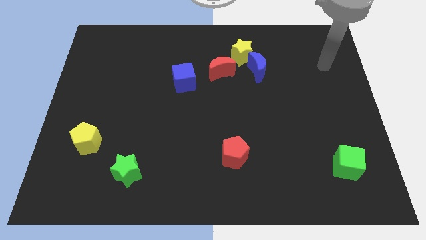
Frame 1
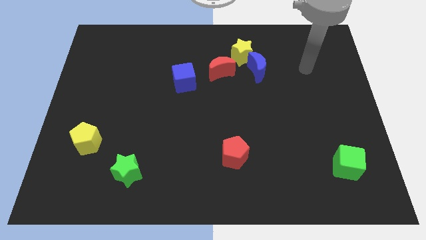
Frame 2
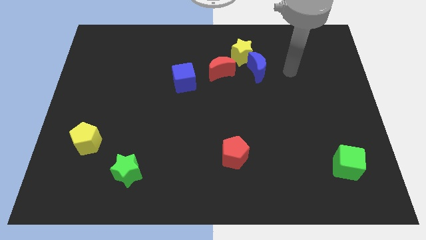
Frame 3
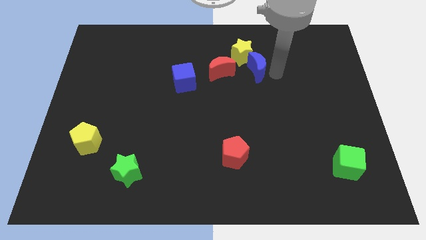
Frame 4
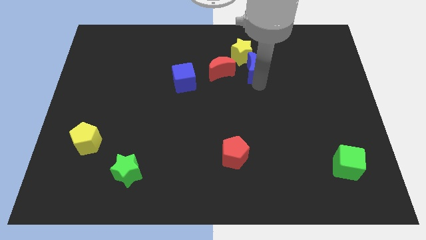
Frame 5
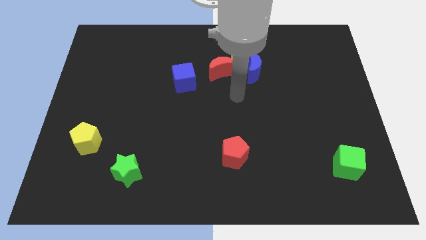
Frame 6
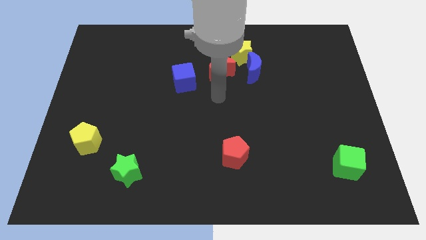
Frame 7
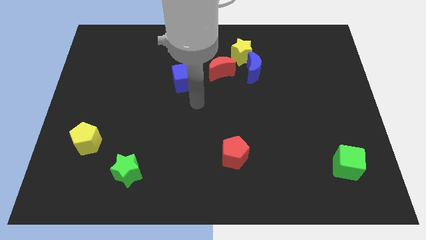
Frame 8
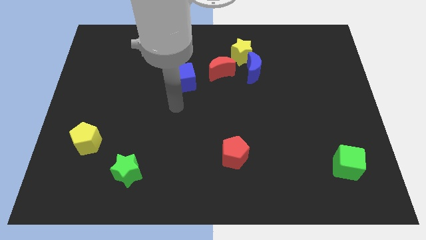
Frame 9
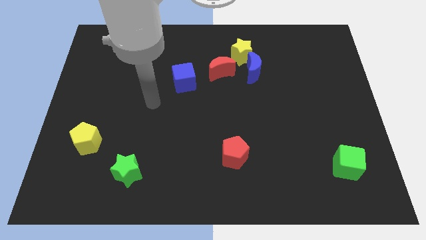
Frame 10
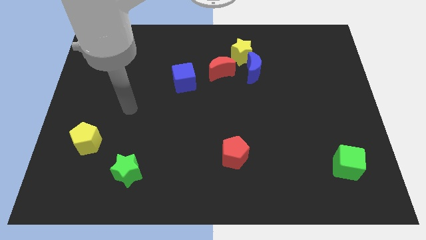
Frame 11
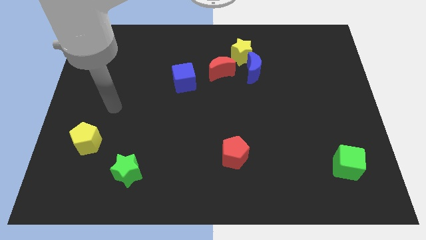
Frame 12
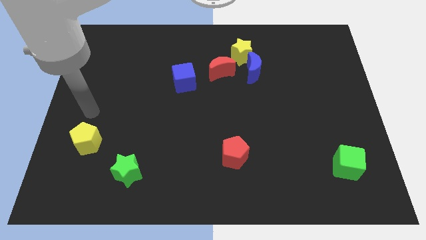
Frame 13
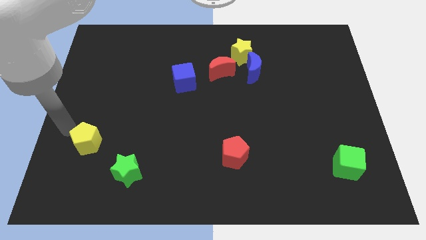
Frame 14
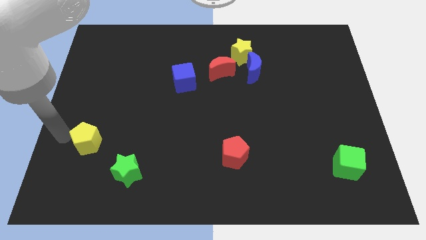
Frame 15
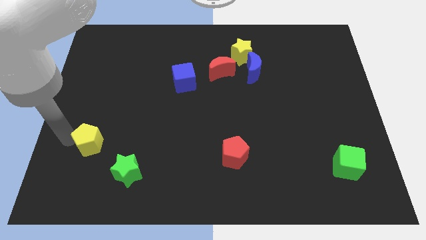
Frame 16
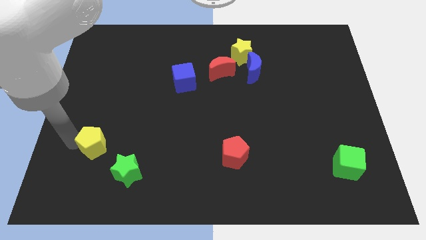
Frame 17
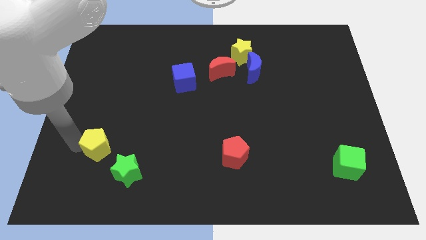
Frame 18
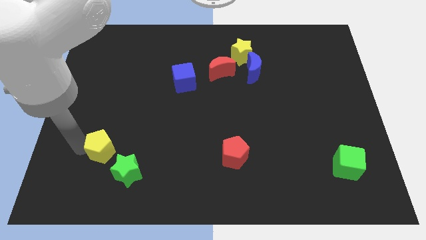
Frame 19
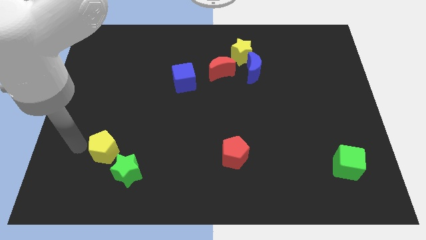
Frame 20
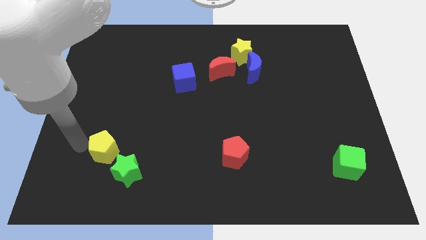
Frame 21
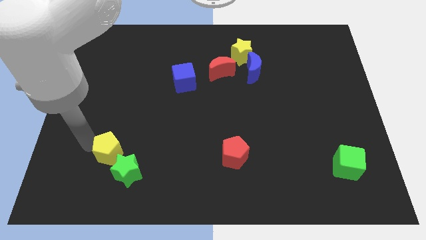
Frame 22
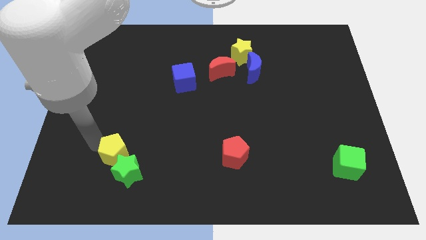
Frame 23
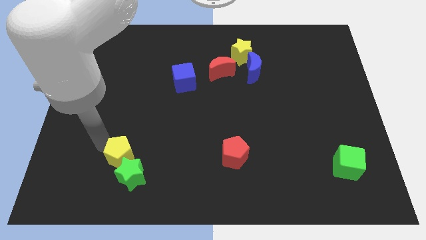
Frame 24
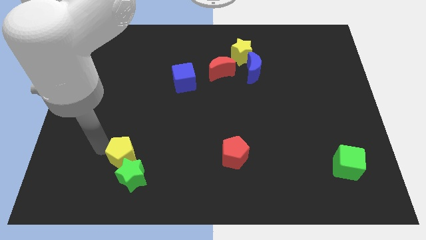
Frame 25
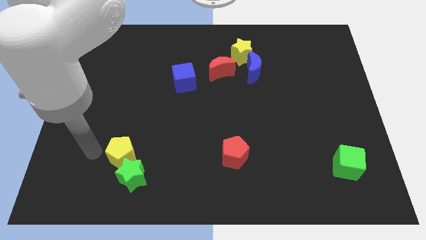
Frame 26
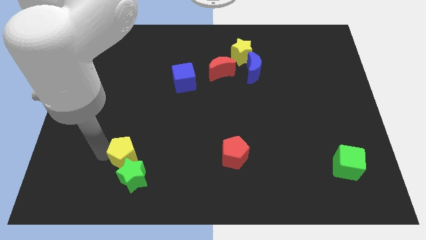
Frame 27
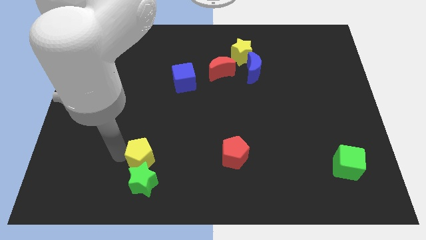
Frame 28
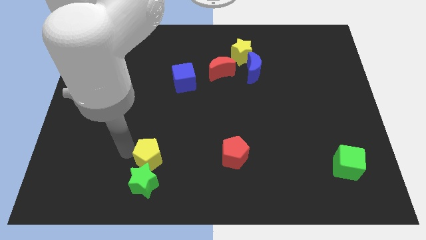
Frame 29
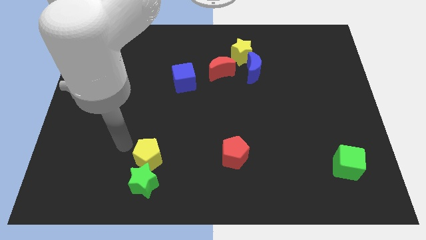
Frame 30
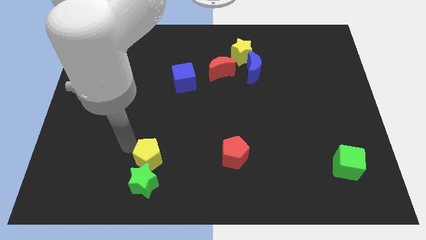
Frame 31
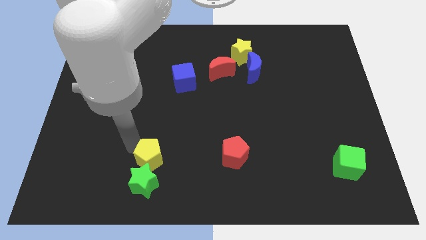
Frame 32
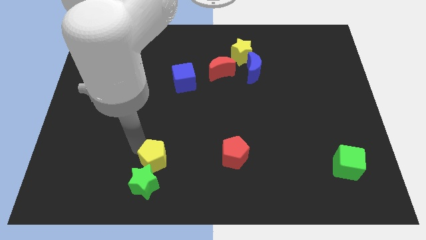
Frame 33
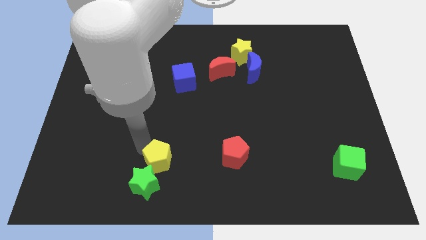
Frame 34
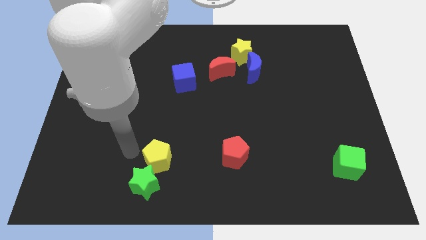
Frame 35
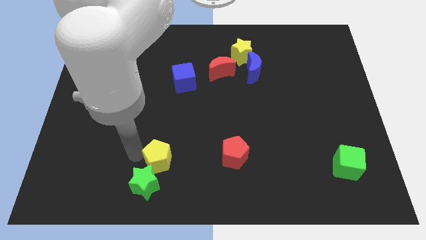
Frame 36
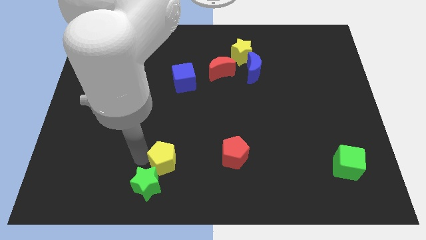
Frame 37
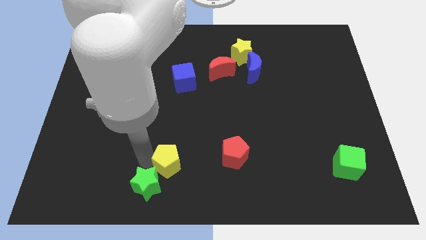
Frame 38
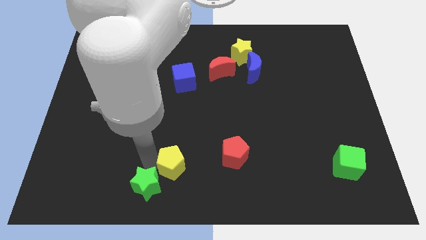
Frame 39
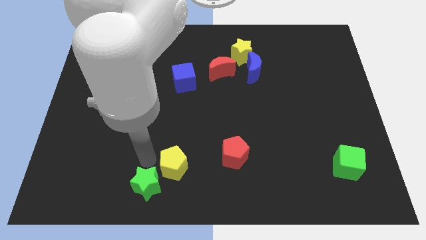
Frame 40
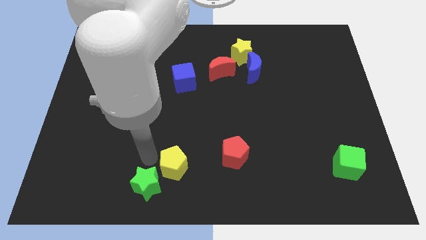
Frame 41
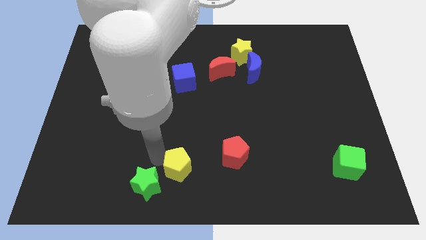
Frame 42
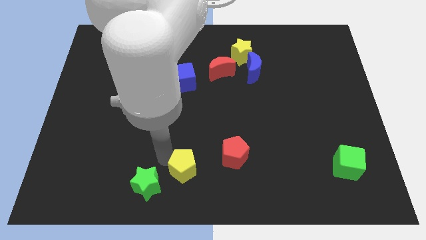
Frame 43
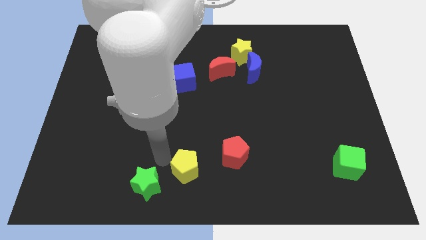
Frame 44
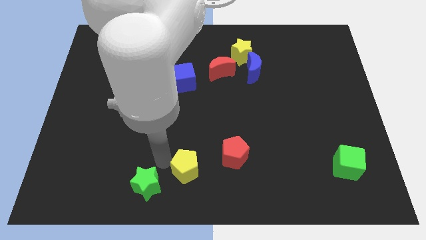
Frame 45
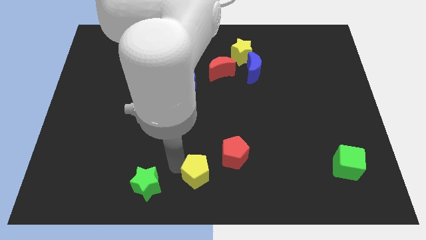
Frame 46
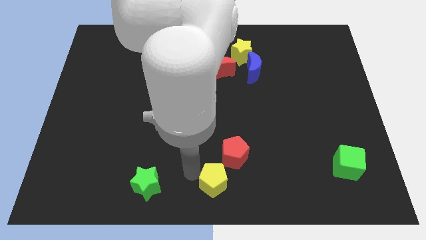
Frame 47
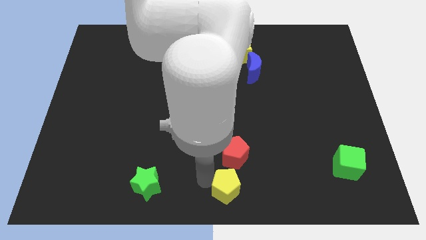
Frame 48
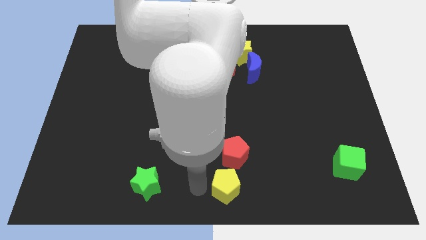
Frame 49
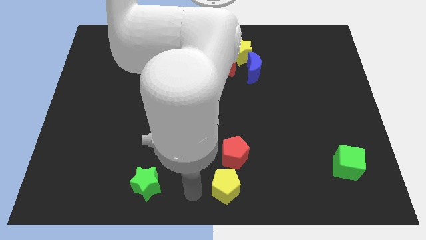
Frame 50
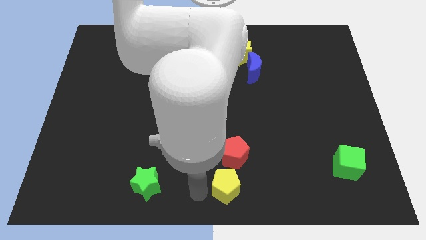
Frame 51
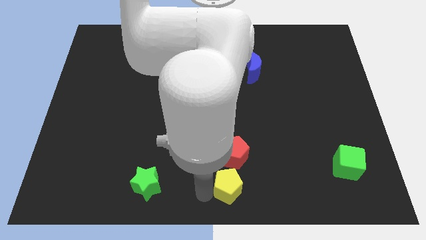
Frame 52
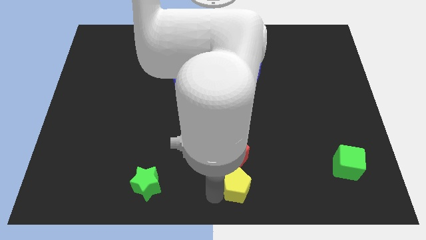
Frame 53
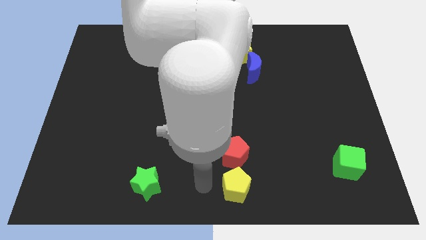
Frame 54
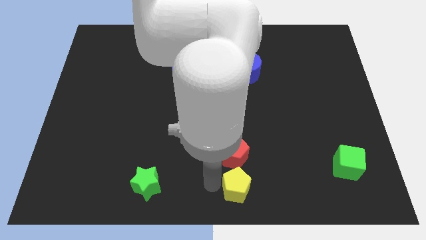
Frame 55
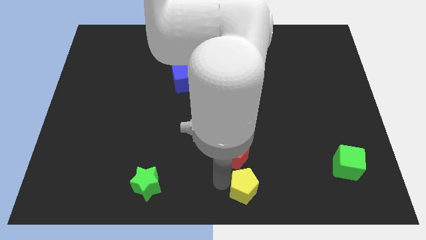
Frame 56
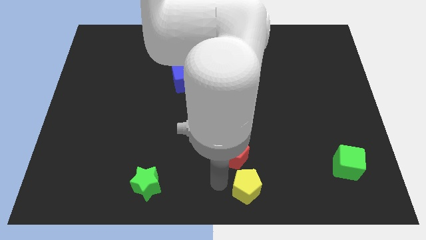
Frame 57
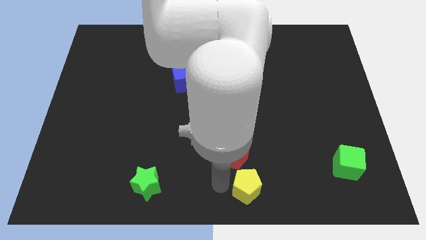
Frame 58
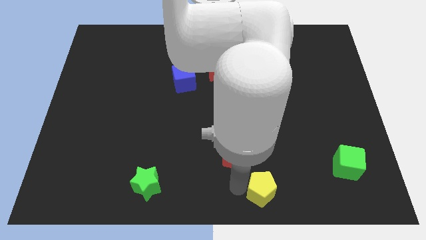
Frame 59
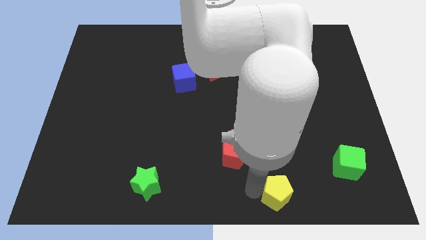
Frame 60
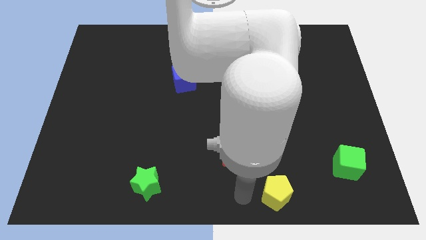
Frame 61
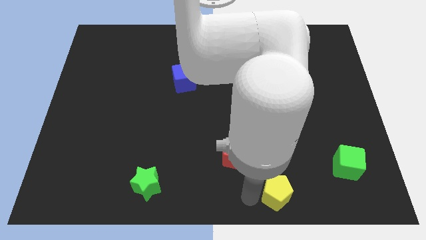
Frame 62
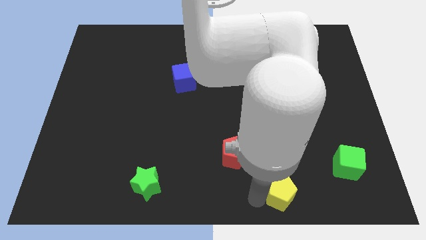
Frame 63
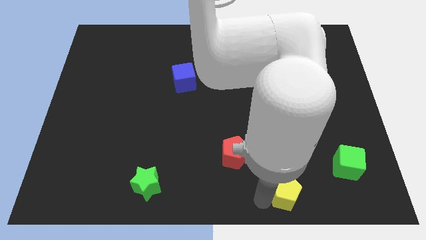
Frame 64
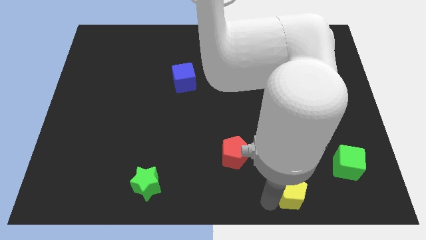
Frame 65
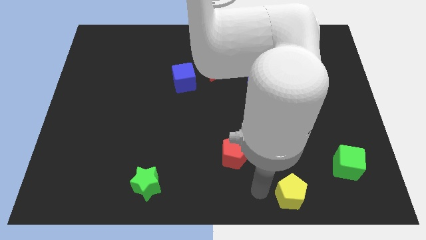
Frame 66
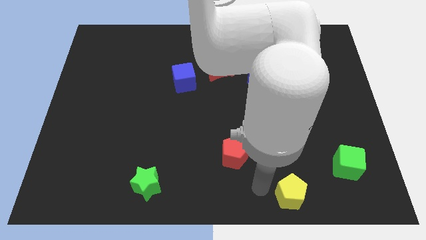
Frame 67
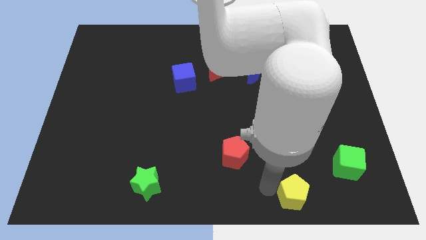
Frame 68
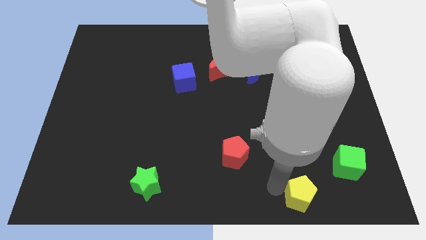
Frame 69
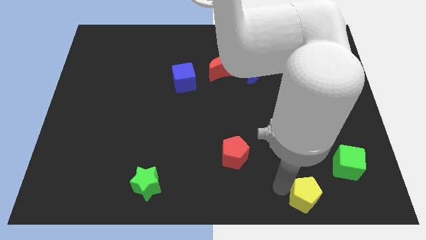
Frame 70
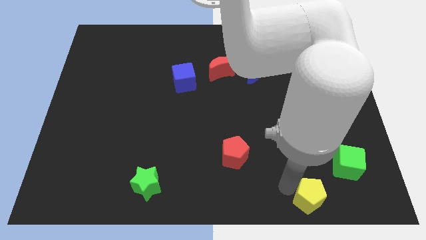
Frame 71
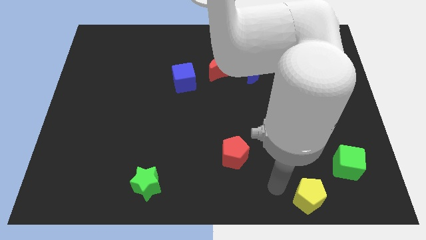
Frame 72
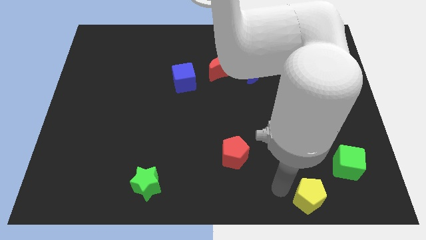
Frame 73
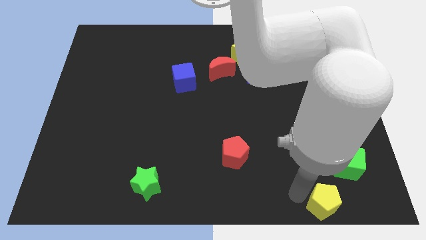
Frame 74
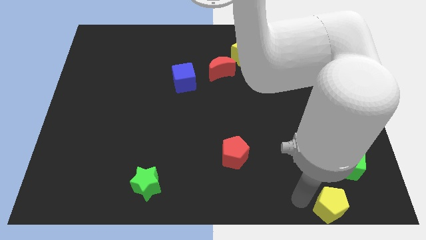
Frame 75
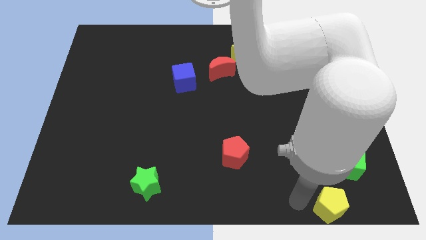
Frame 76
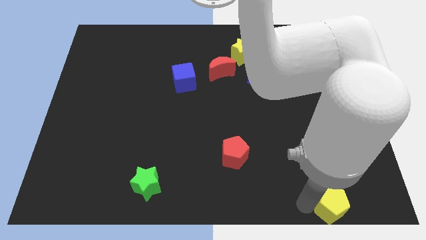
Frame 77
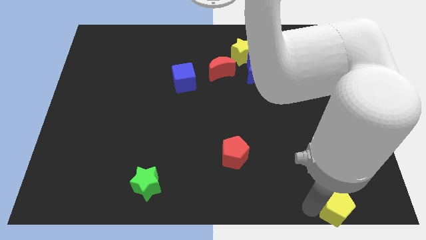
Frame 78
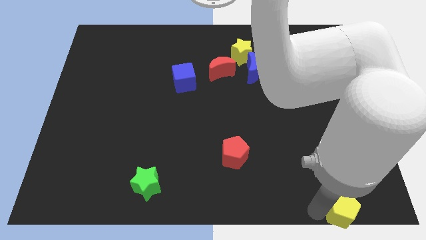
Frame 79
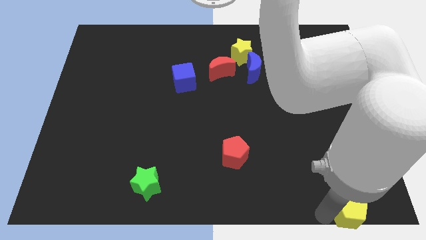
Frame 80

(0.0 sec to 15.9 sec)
put the yellow pentagon to the lower right corner
